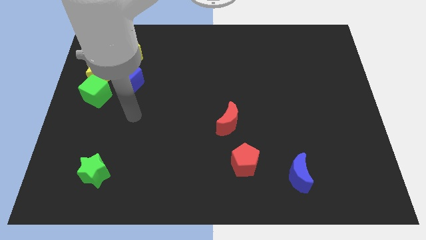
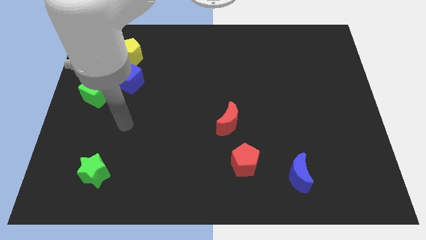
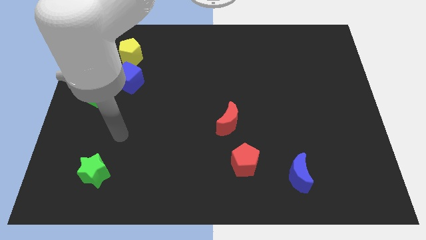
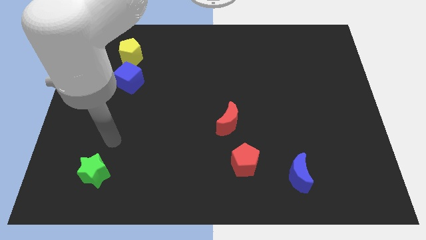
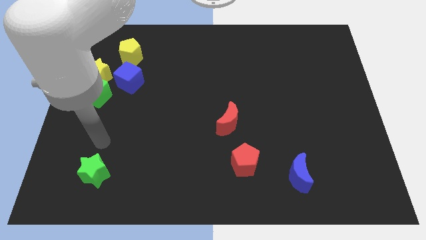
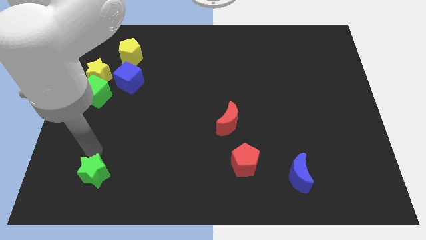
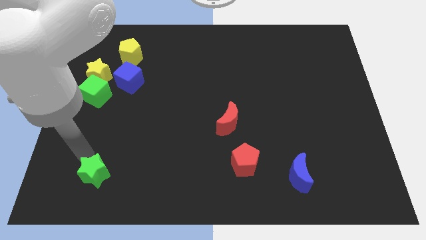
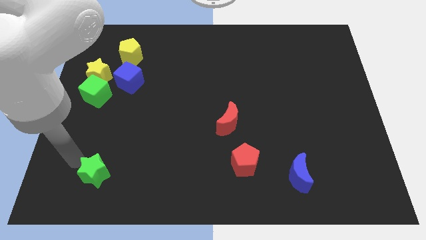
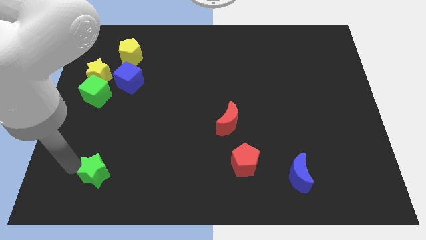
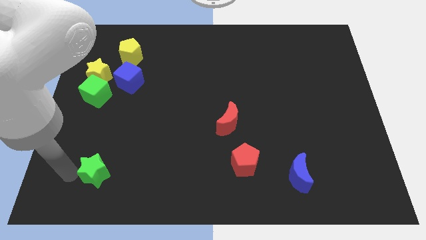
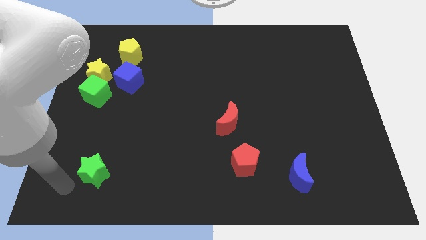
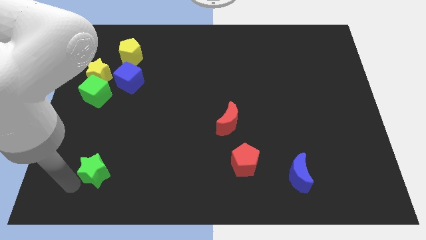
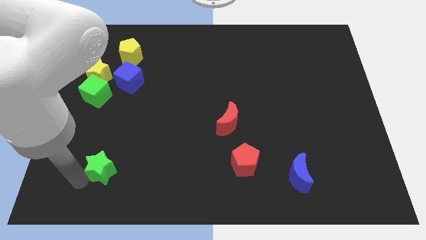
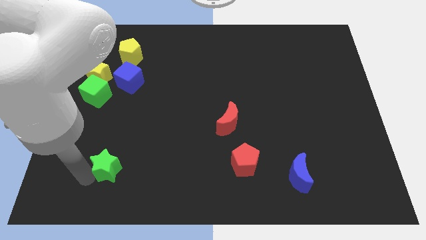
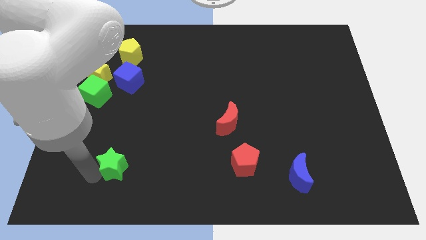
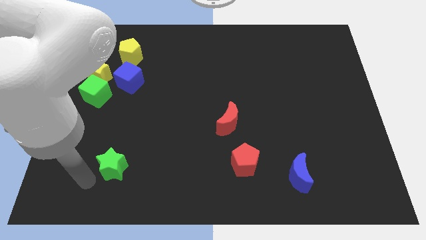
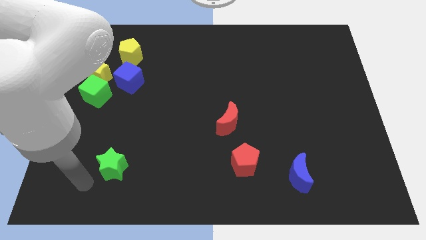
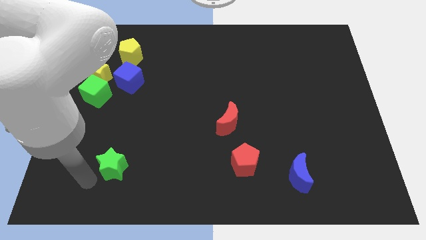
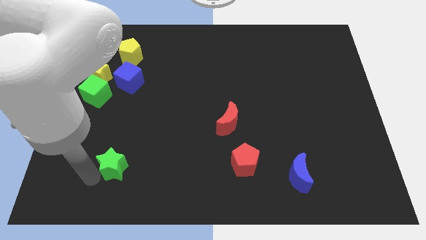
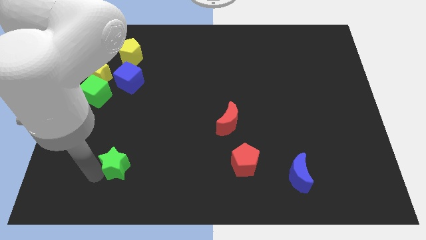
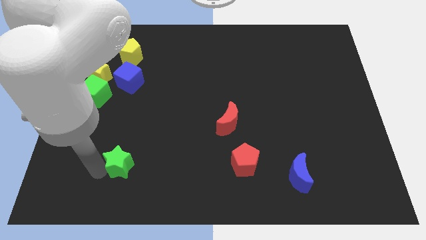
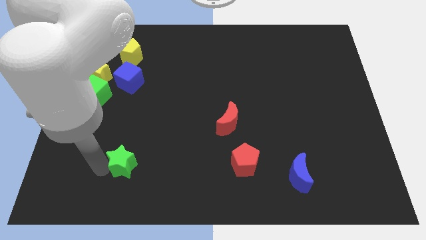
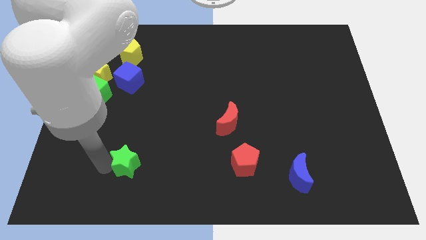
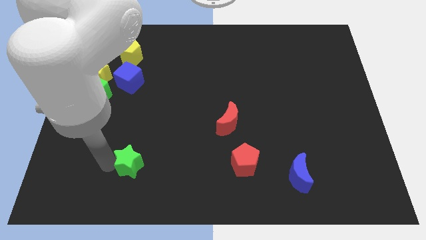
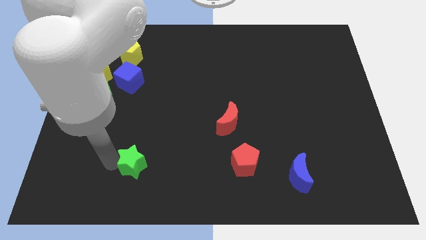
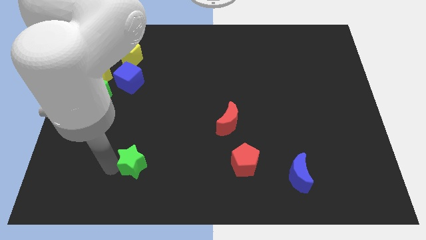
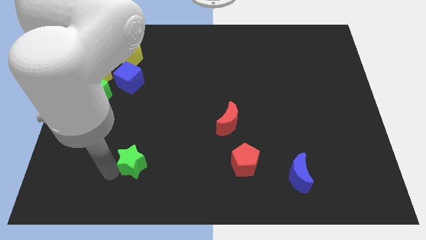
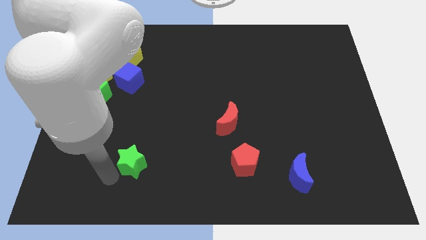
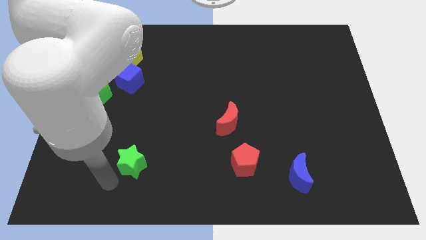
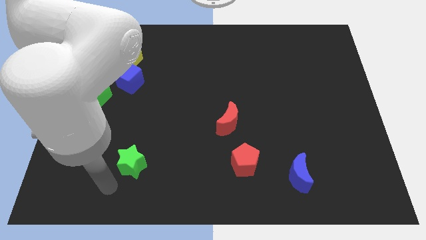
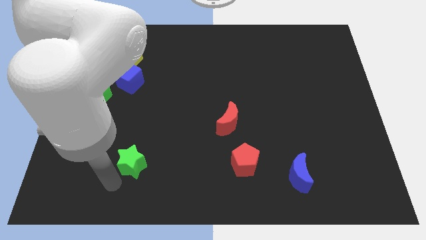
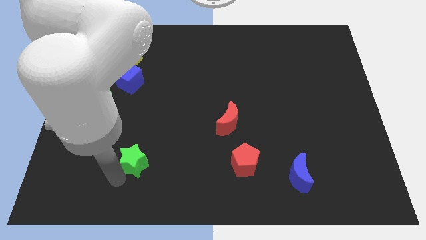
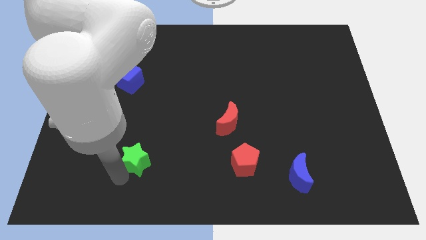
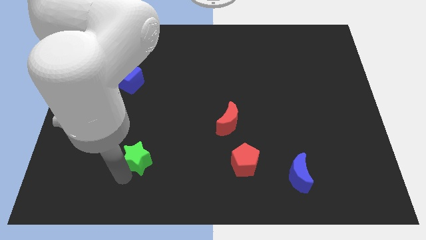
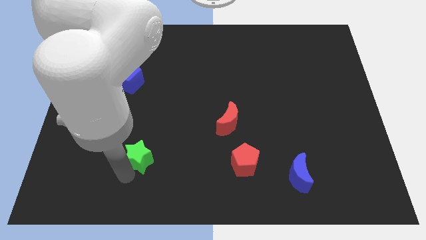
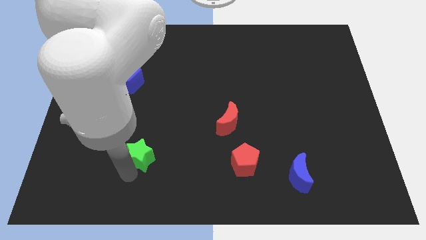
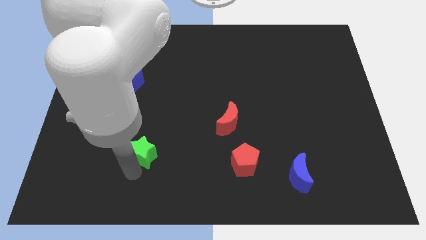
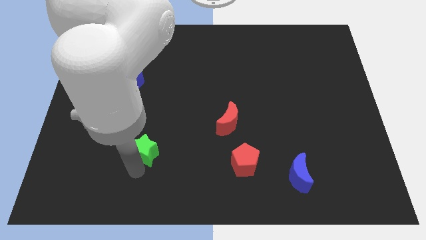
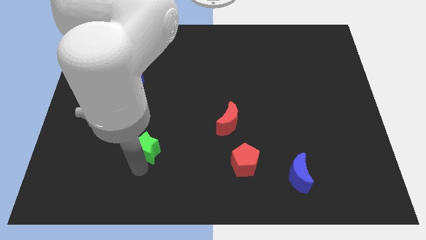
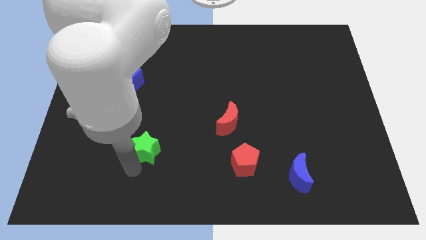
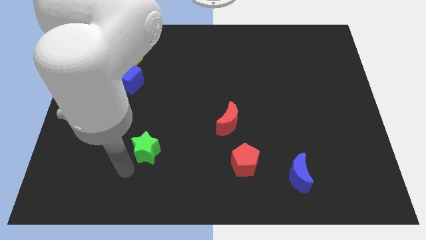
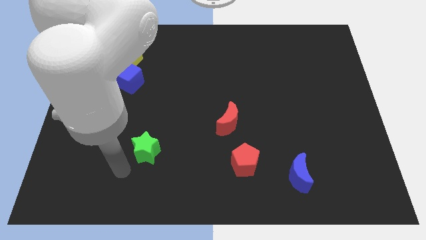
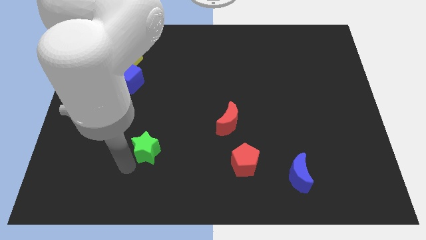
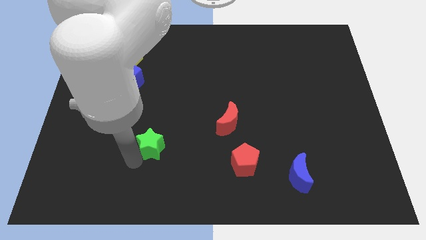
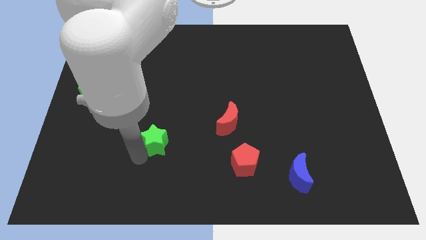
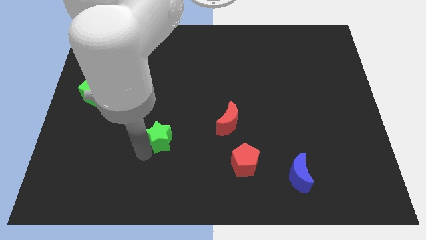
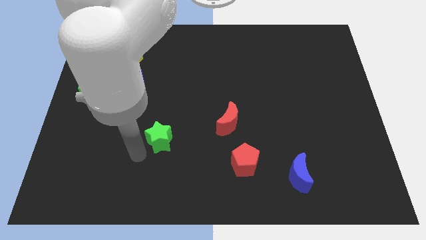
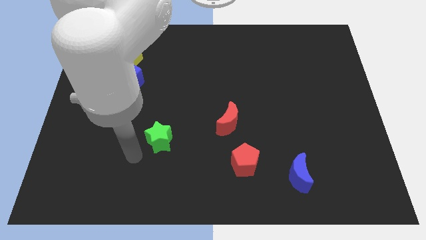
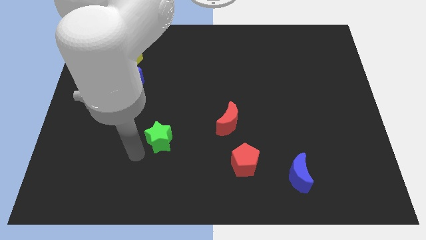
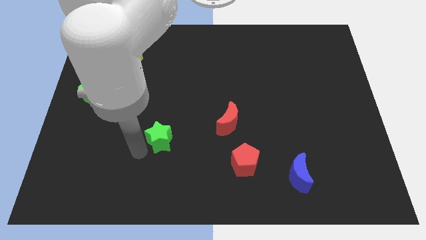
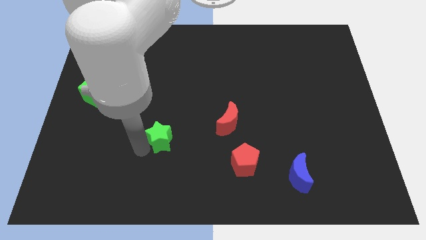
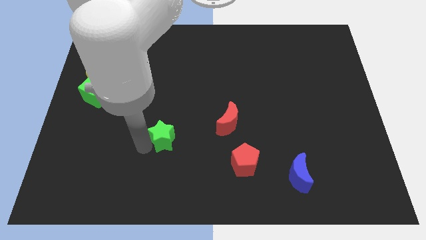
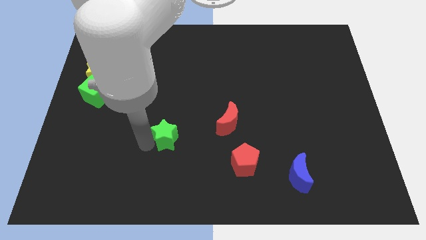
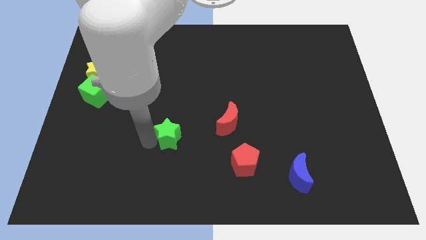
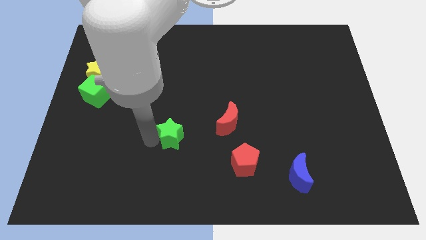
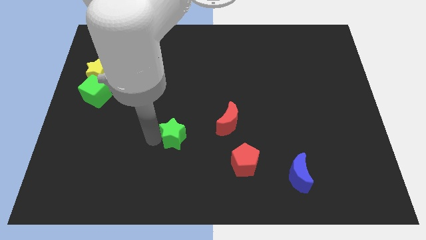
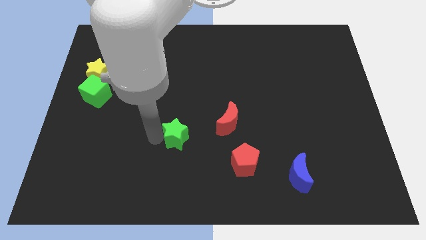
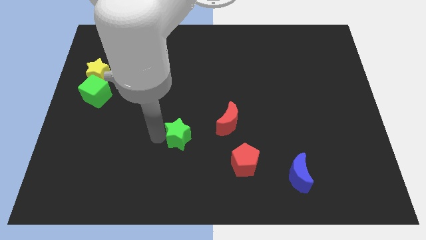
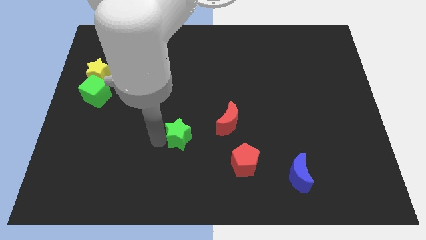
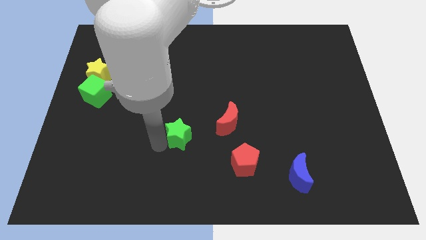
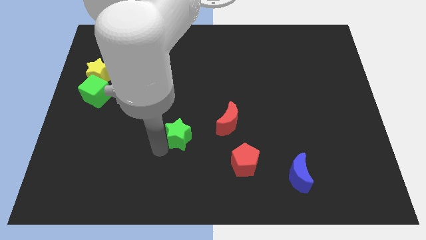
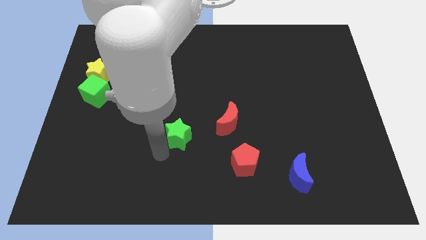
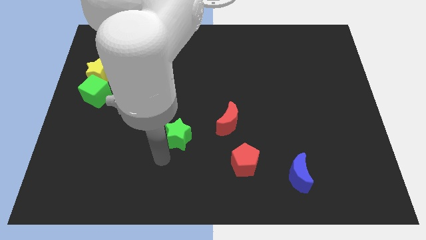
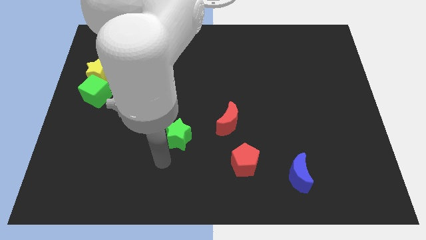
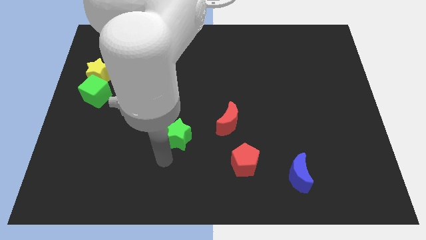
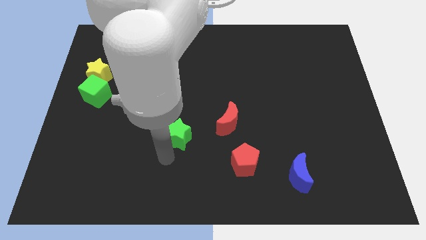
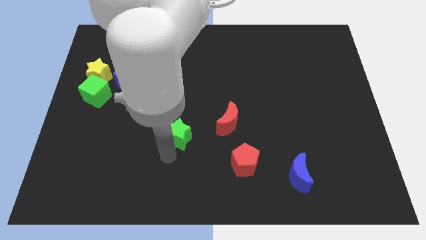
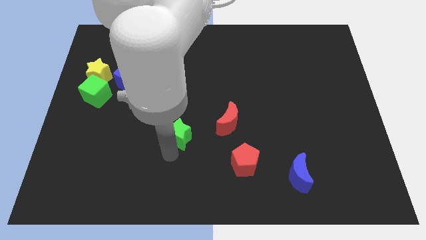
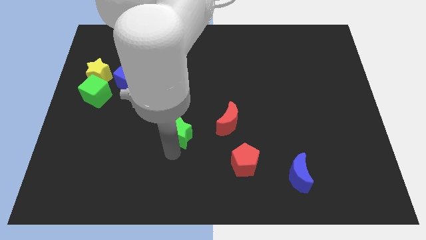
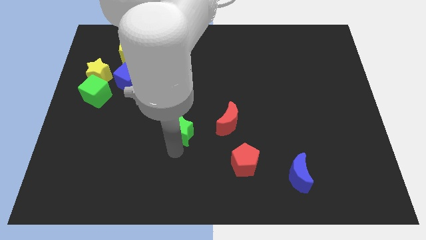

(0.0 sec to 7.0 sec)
move the green star to the middle

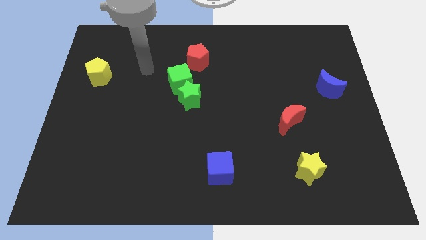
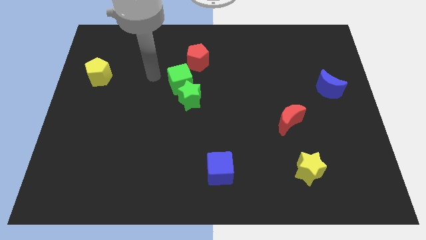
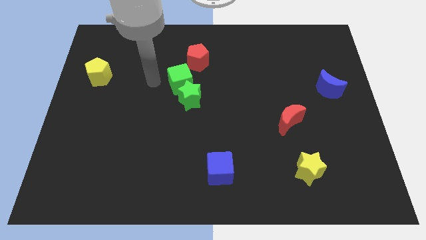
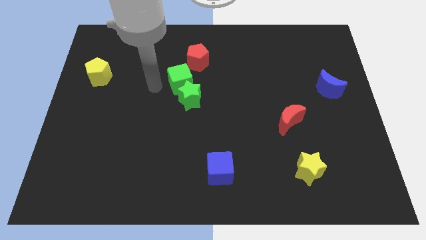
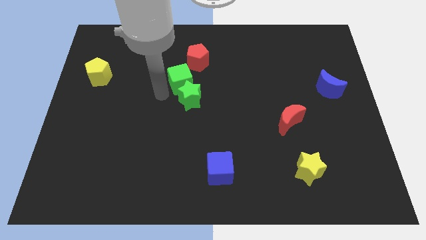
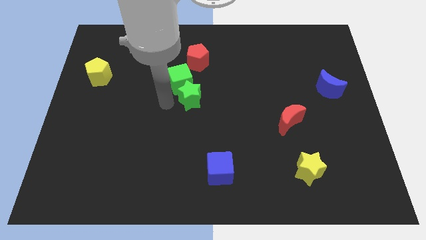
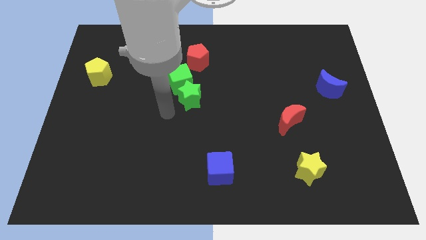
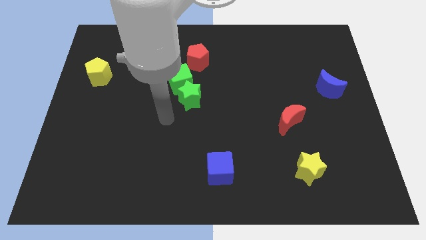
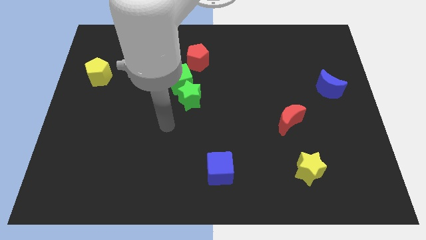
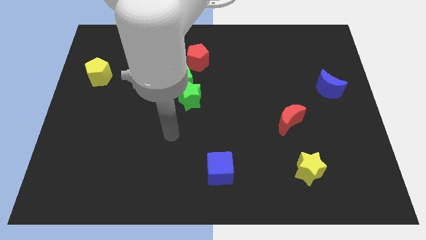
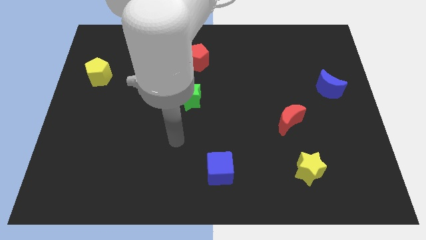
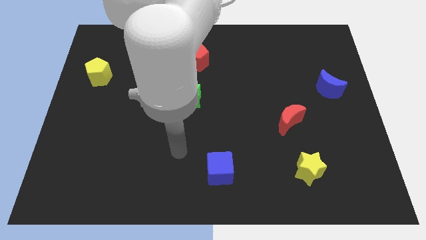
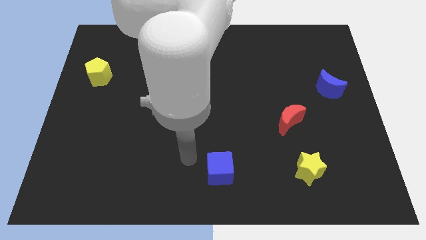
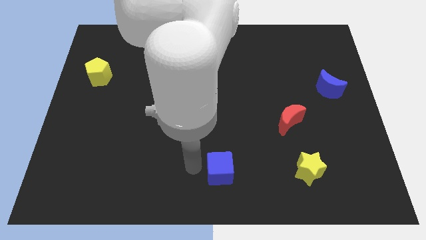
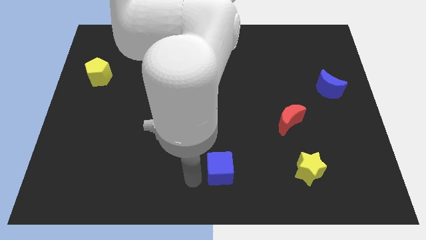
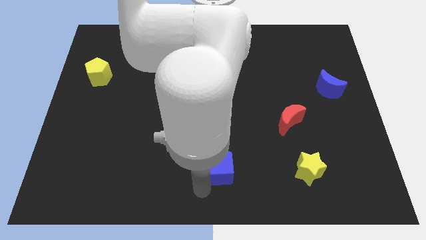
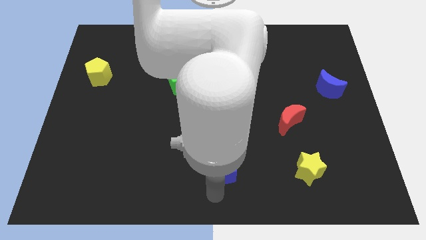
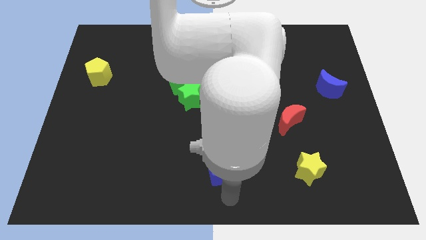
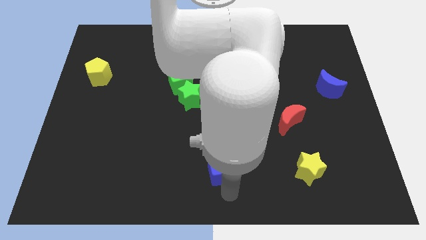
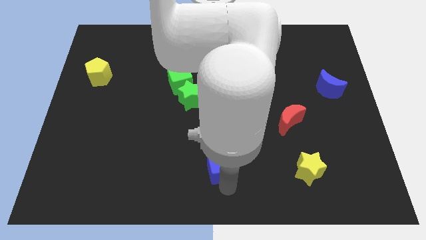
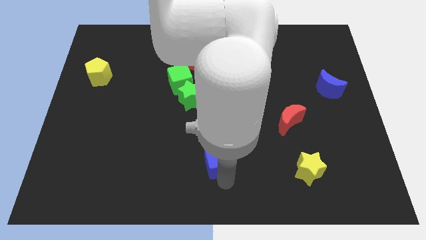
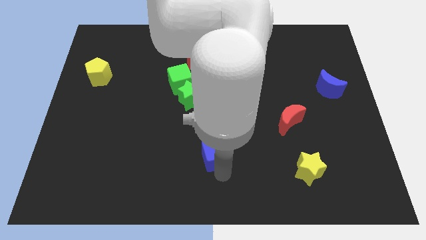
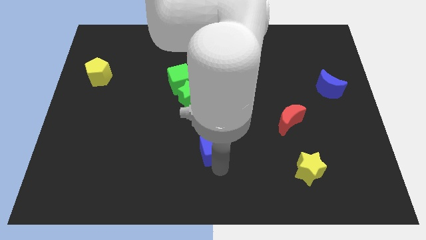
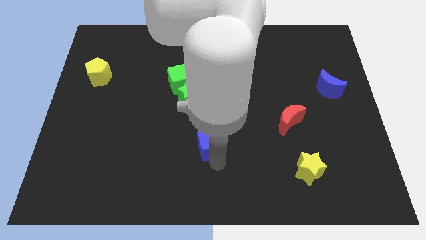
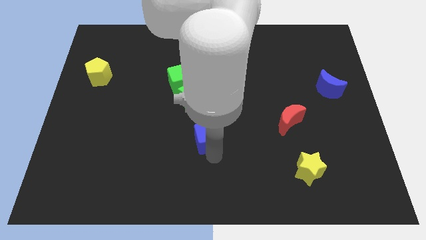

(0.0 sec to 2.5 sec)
push the blue cube to the center
